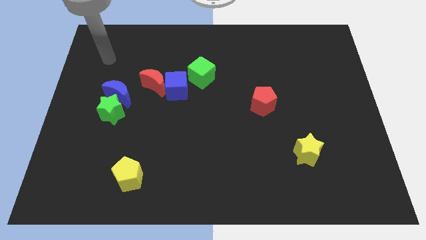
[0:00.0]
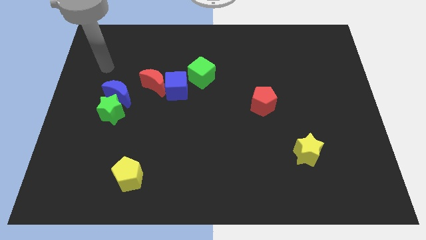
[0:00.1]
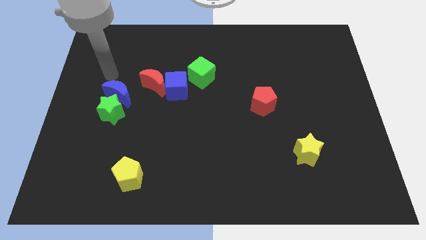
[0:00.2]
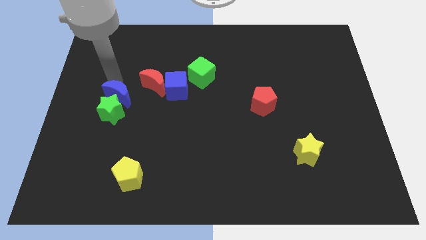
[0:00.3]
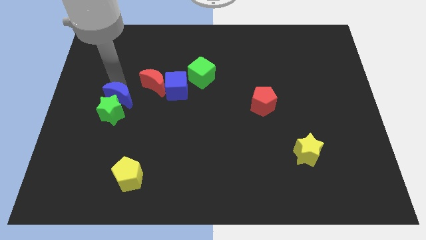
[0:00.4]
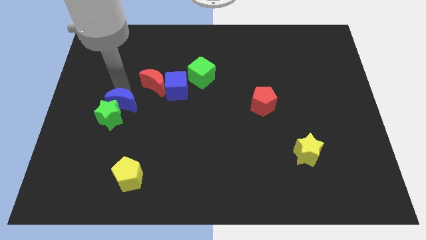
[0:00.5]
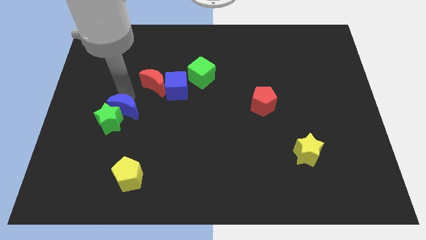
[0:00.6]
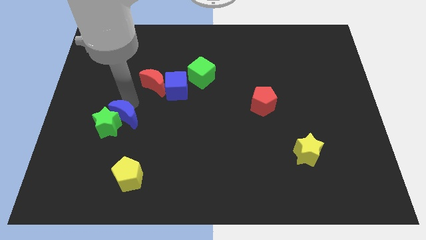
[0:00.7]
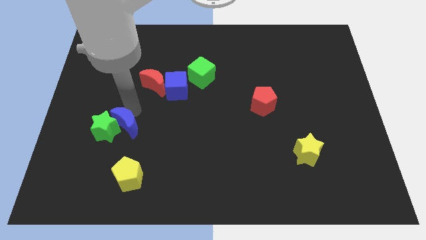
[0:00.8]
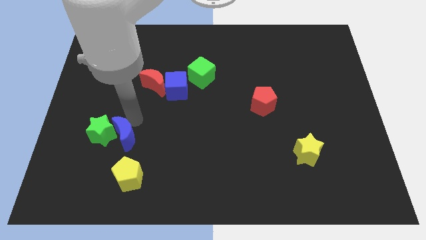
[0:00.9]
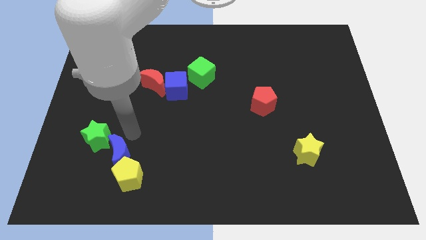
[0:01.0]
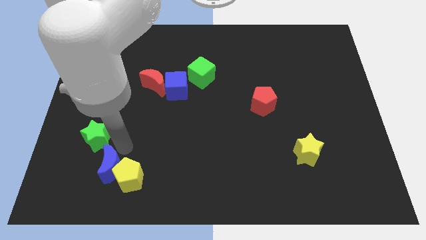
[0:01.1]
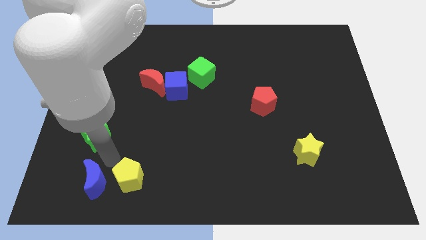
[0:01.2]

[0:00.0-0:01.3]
pull the green star apart from the blue moon

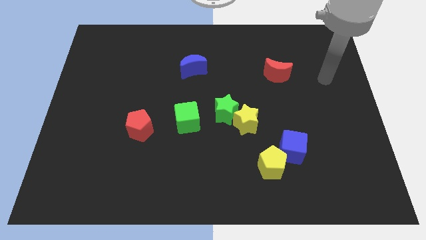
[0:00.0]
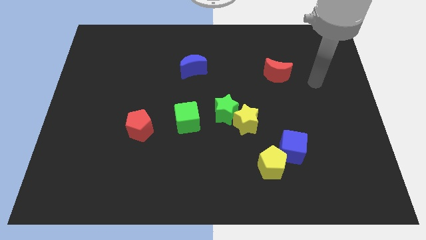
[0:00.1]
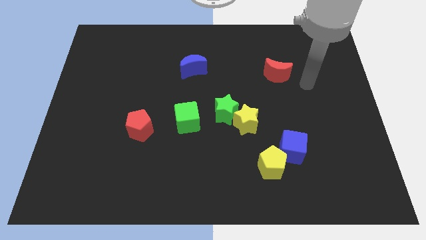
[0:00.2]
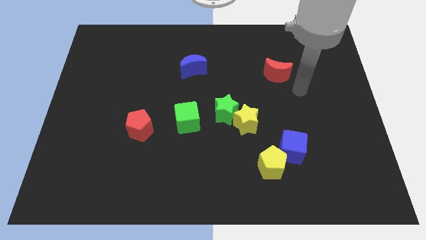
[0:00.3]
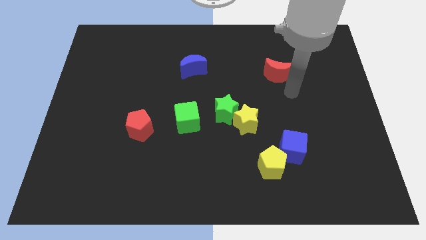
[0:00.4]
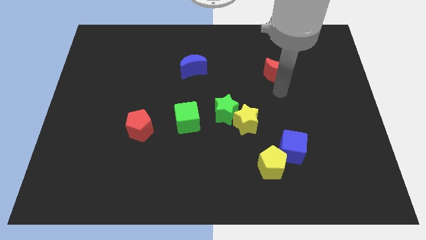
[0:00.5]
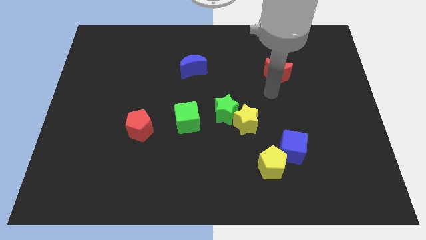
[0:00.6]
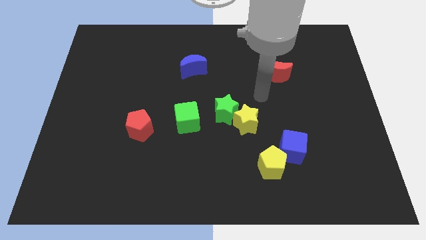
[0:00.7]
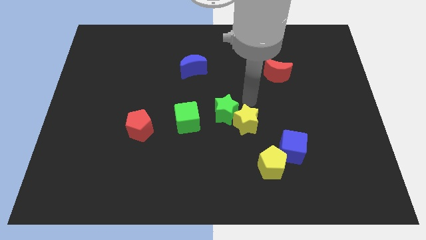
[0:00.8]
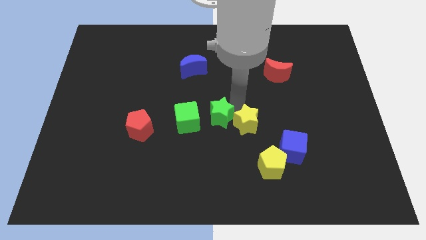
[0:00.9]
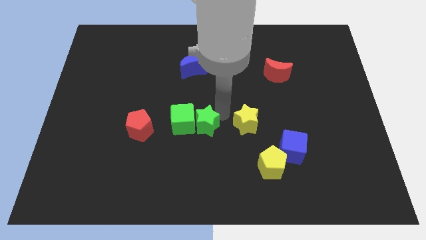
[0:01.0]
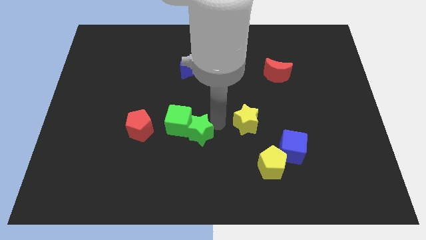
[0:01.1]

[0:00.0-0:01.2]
move the yellow star away from the green star

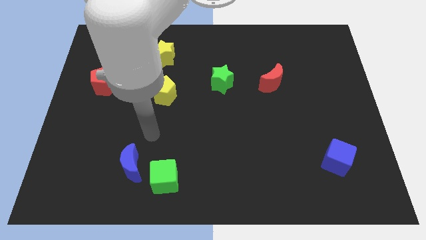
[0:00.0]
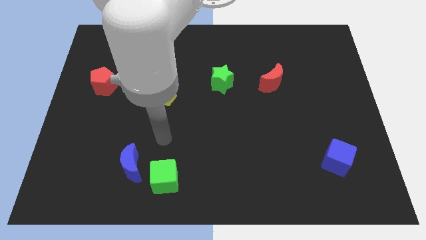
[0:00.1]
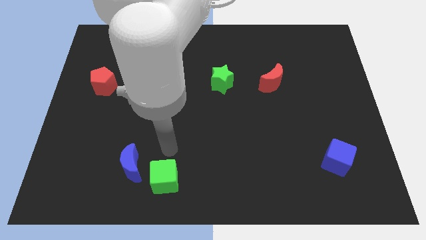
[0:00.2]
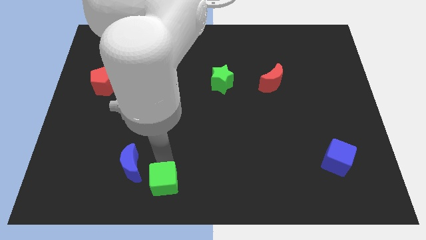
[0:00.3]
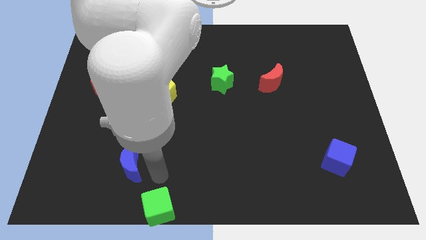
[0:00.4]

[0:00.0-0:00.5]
move the blue moon away from the green cube

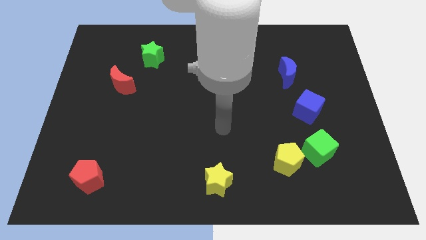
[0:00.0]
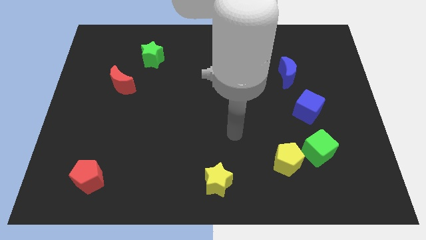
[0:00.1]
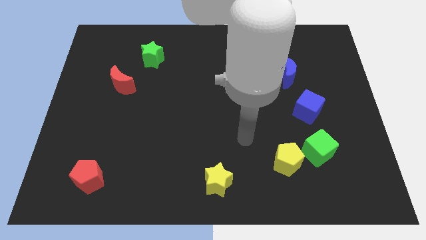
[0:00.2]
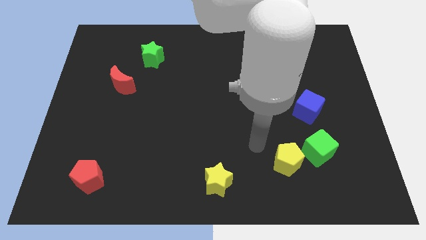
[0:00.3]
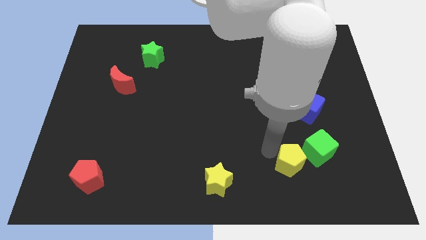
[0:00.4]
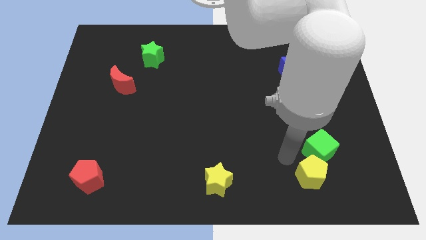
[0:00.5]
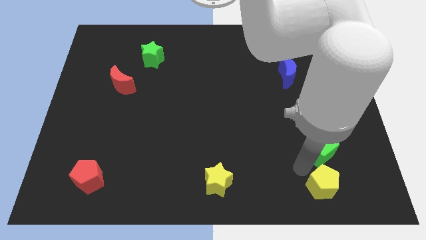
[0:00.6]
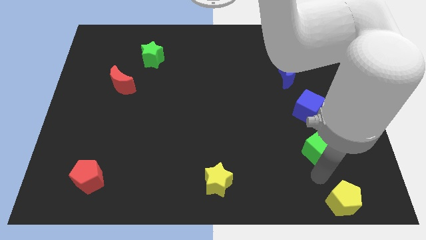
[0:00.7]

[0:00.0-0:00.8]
move the green cube away from the yellow pentagon

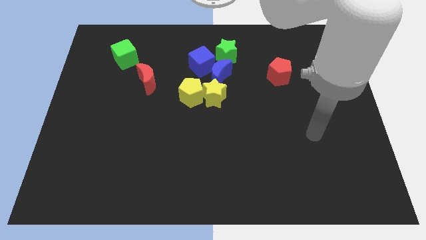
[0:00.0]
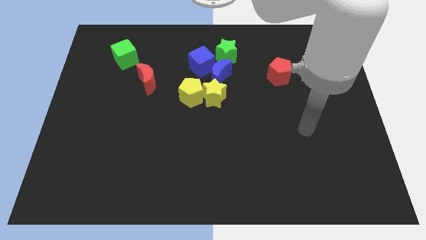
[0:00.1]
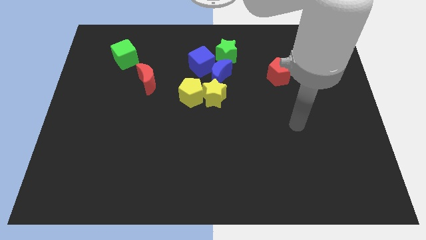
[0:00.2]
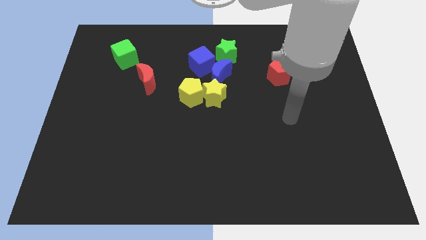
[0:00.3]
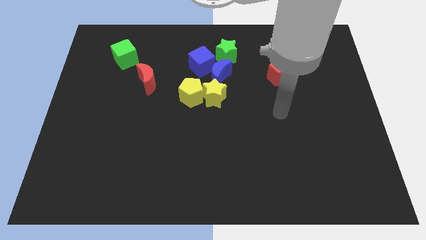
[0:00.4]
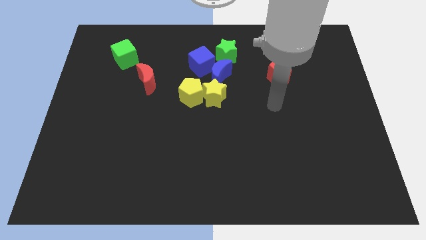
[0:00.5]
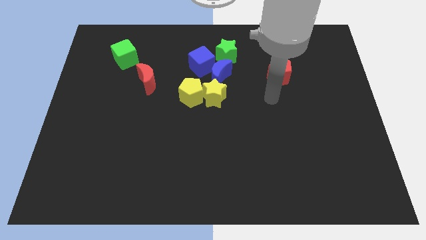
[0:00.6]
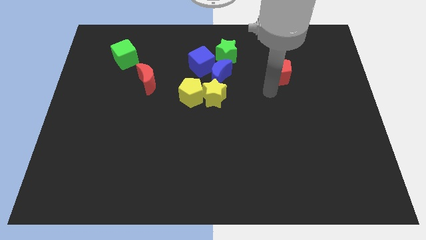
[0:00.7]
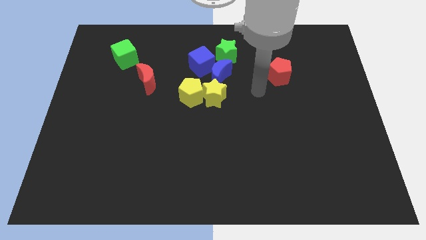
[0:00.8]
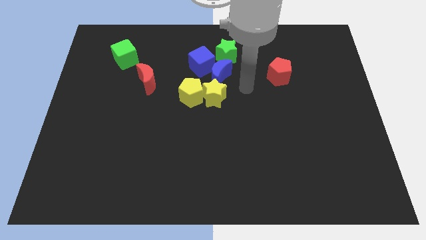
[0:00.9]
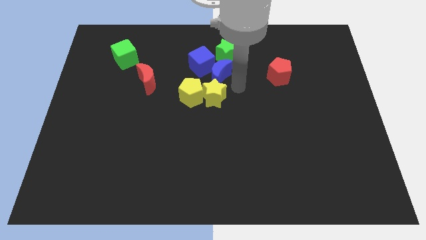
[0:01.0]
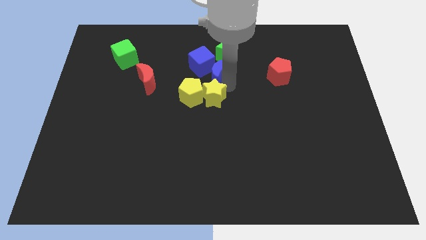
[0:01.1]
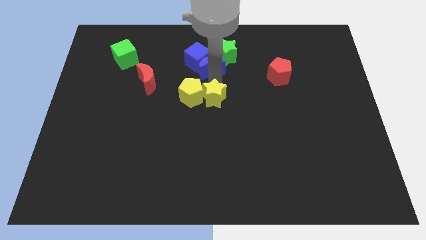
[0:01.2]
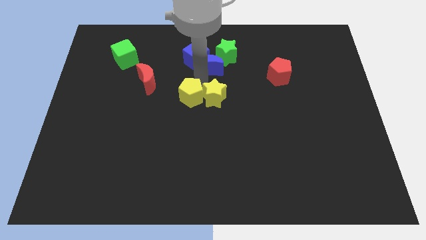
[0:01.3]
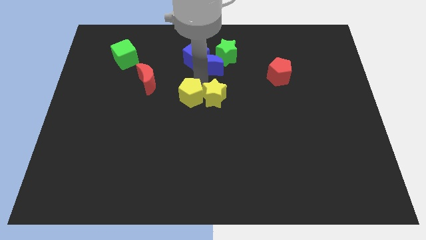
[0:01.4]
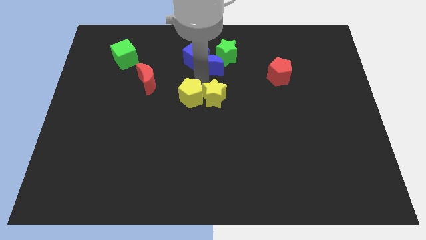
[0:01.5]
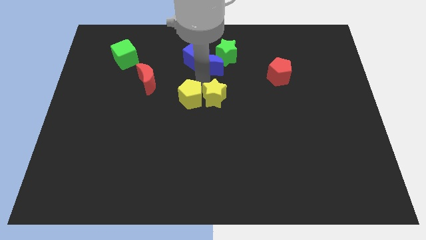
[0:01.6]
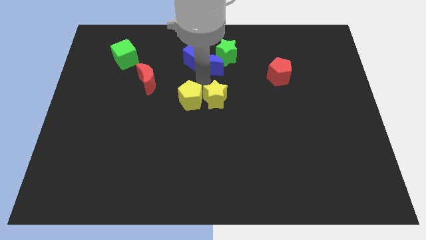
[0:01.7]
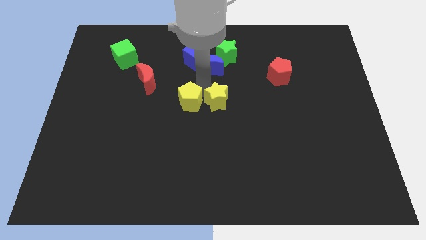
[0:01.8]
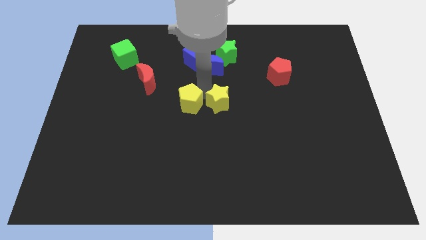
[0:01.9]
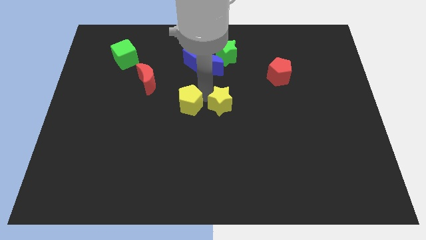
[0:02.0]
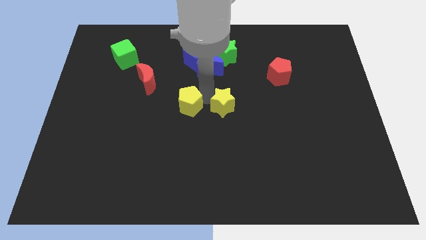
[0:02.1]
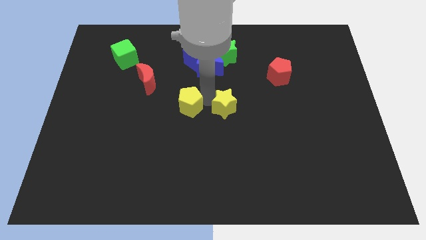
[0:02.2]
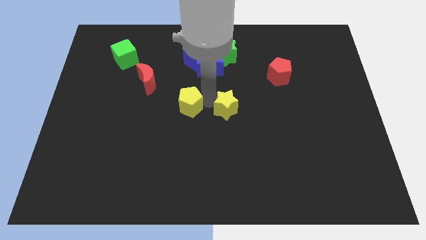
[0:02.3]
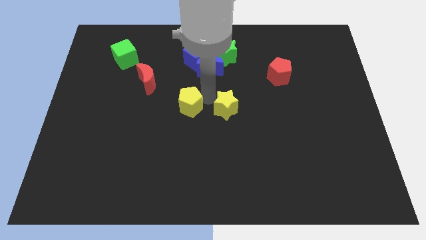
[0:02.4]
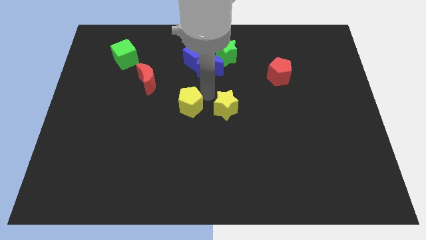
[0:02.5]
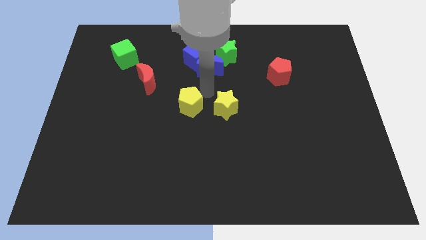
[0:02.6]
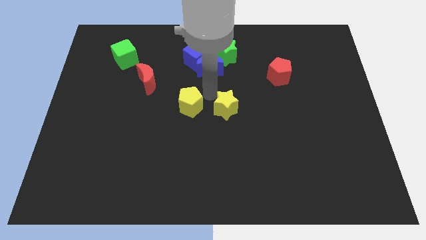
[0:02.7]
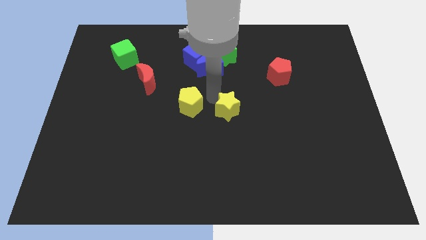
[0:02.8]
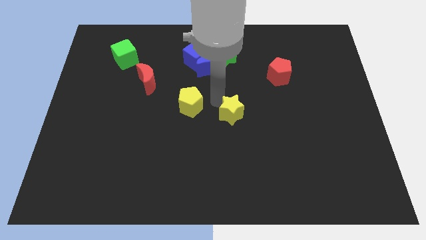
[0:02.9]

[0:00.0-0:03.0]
separate the yellow star from the yellow pentagon and blue moon

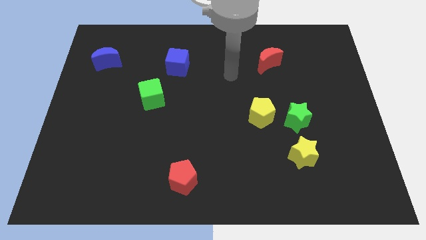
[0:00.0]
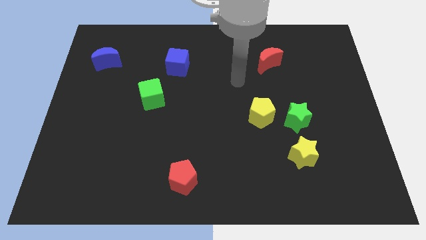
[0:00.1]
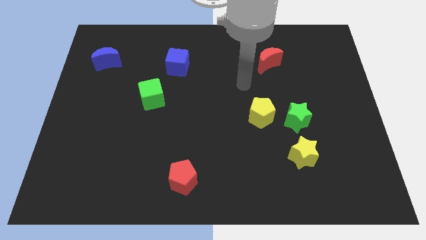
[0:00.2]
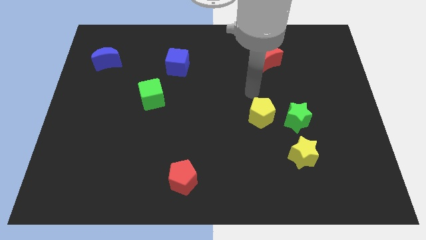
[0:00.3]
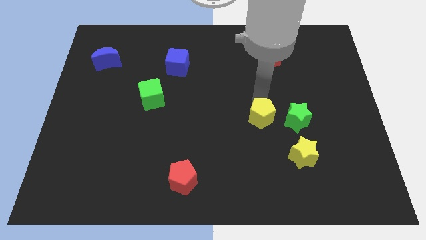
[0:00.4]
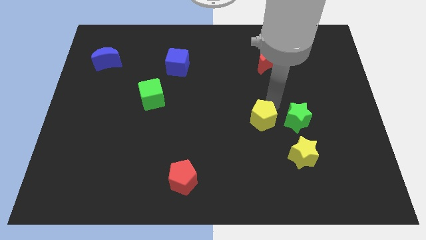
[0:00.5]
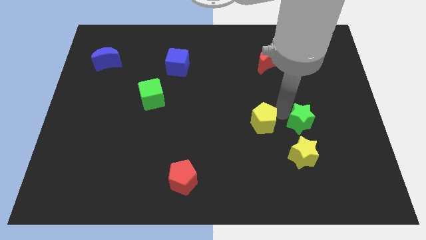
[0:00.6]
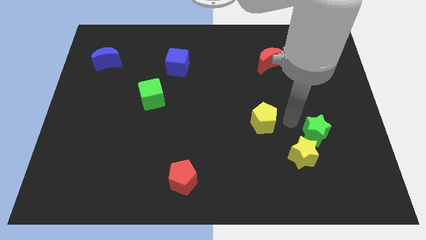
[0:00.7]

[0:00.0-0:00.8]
move the yellow pentagon away from the green star

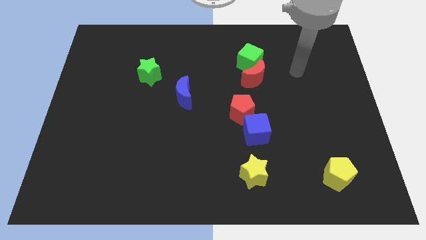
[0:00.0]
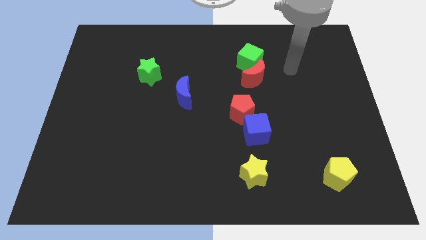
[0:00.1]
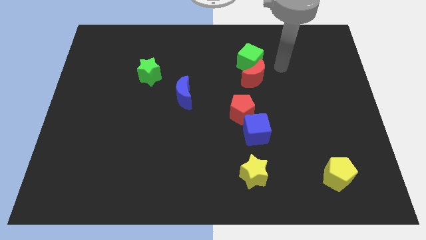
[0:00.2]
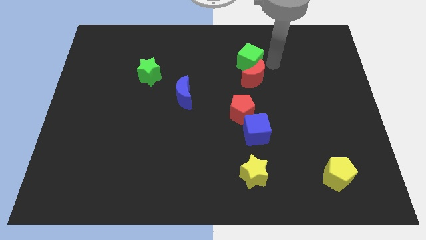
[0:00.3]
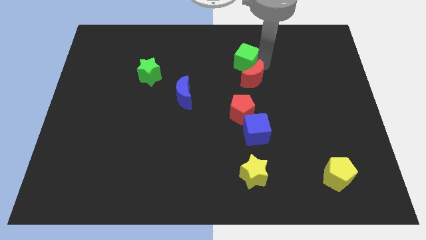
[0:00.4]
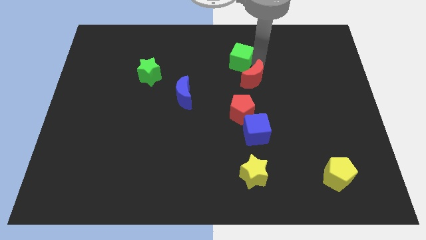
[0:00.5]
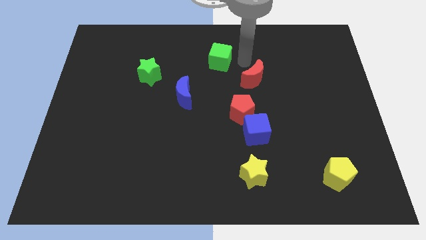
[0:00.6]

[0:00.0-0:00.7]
separate the red moon from the green cube

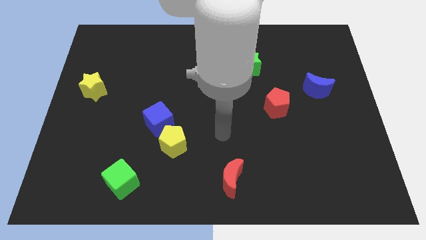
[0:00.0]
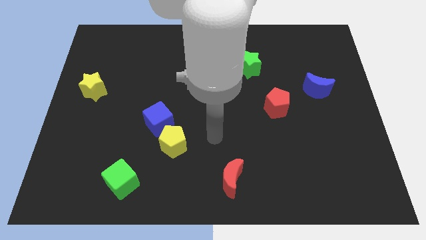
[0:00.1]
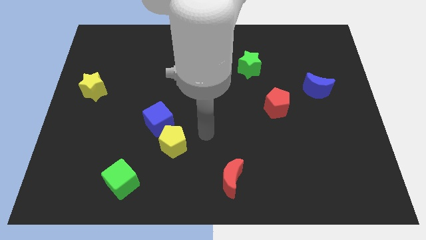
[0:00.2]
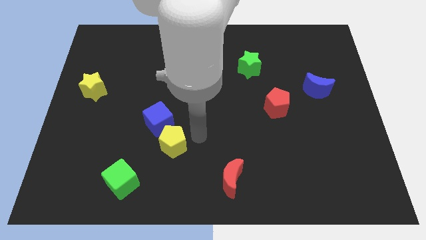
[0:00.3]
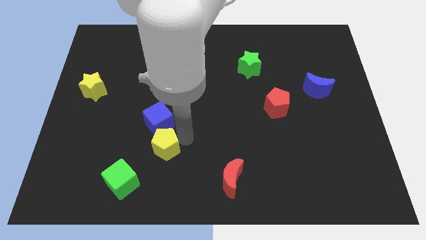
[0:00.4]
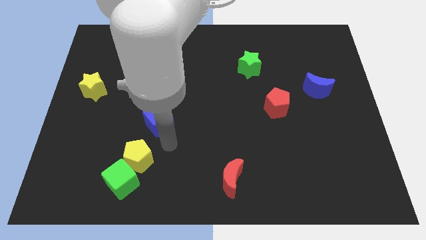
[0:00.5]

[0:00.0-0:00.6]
move the blue cube away from the yellow pentagon

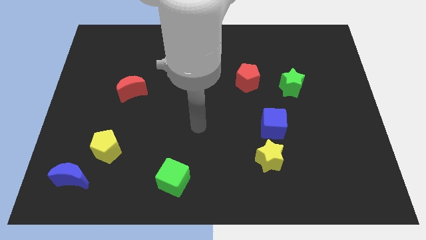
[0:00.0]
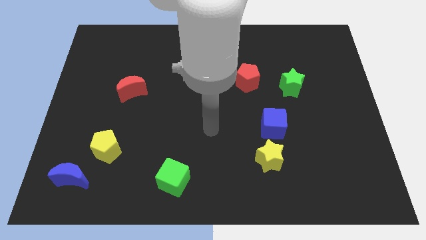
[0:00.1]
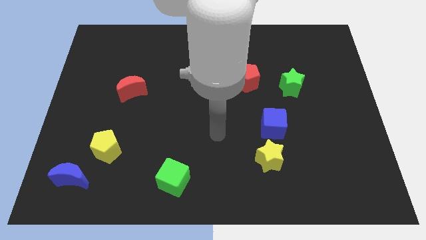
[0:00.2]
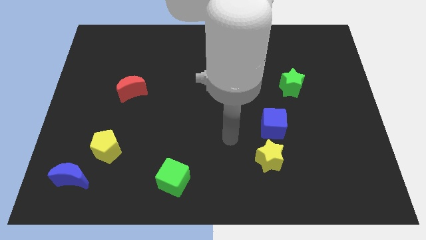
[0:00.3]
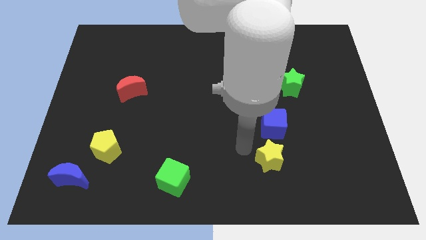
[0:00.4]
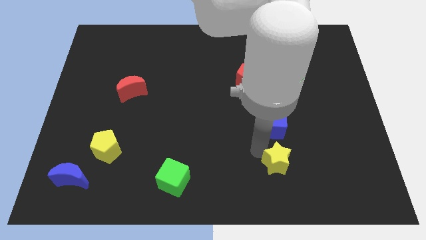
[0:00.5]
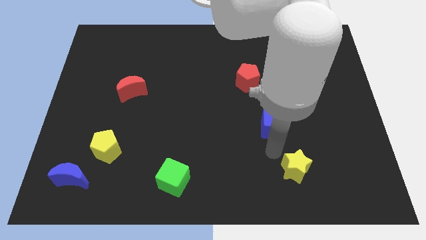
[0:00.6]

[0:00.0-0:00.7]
pull the blue cube apart from the yellow star
